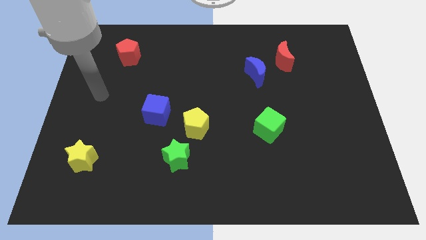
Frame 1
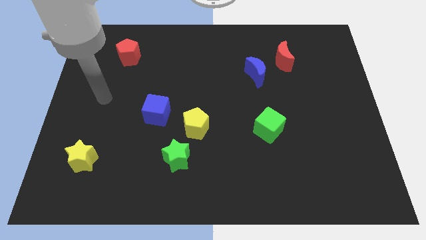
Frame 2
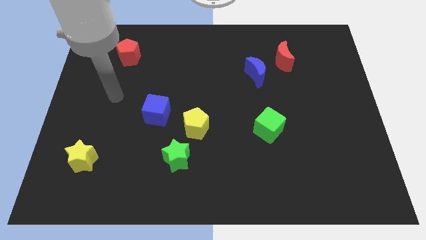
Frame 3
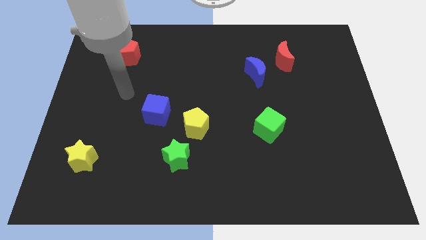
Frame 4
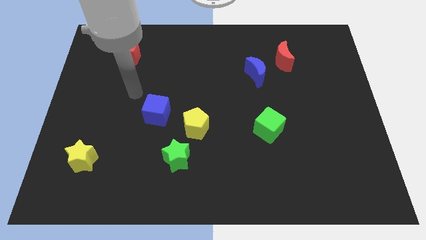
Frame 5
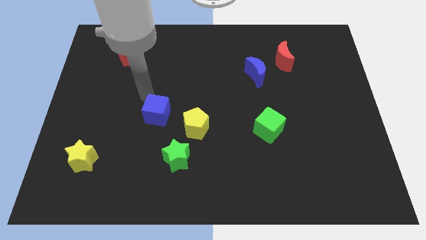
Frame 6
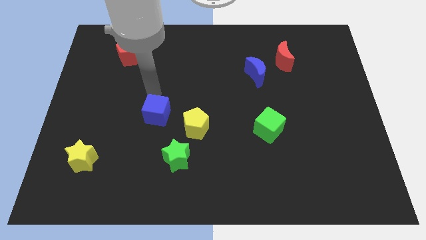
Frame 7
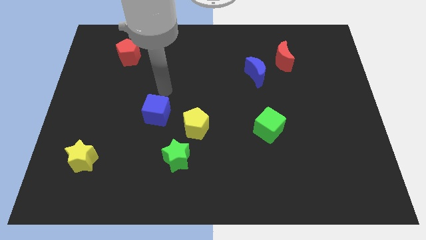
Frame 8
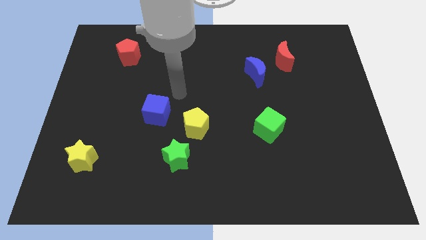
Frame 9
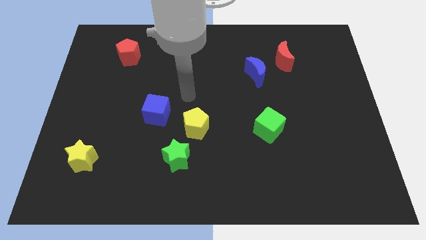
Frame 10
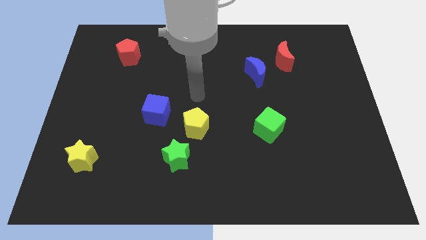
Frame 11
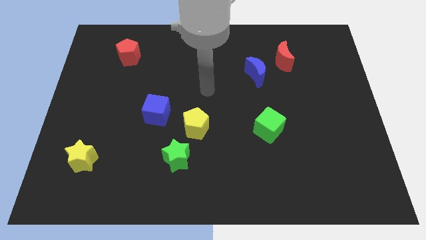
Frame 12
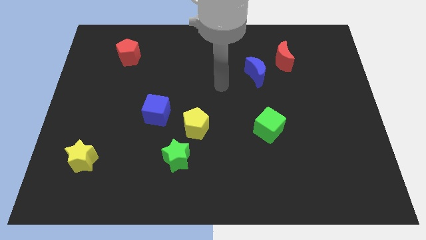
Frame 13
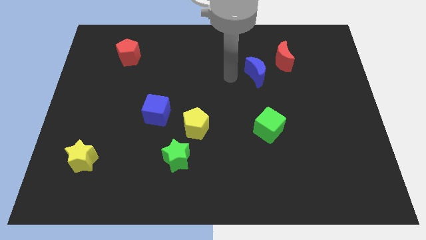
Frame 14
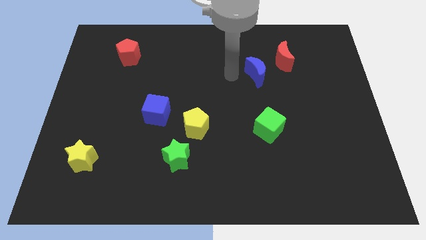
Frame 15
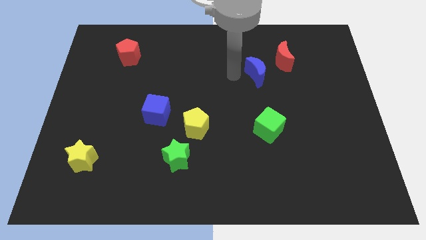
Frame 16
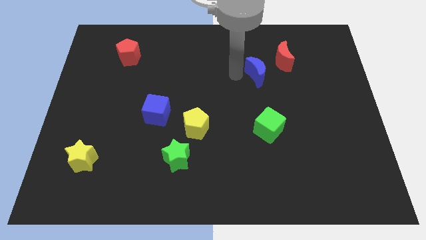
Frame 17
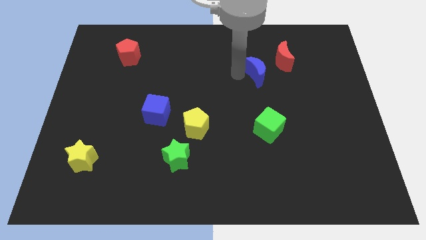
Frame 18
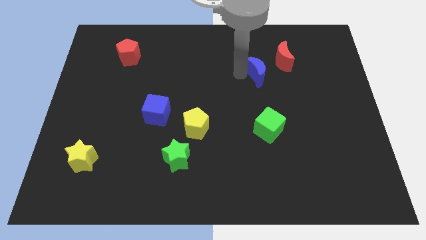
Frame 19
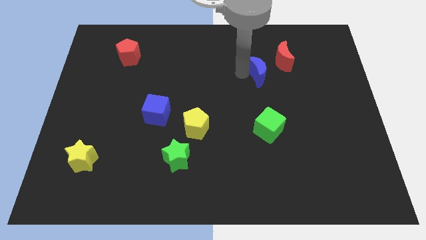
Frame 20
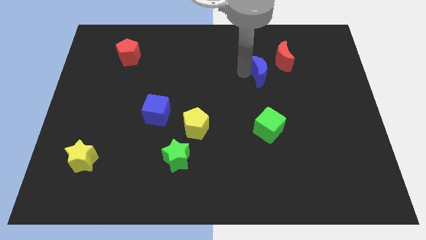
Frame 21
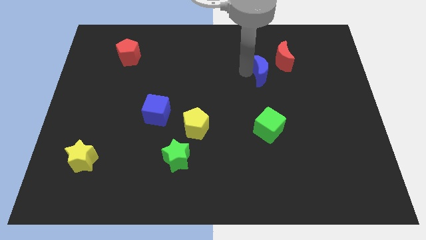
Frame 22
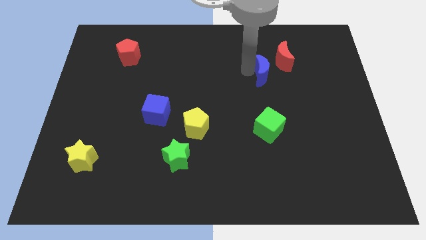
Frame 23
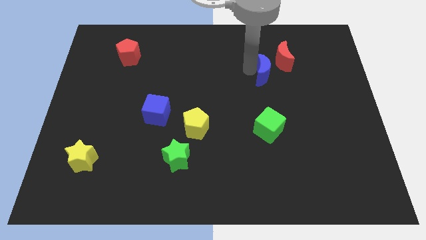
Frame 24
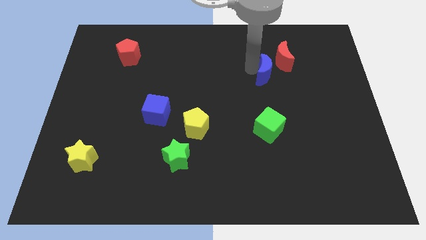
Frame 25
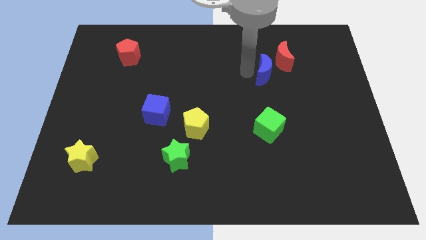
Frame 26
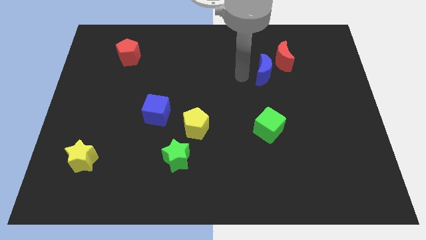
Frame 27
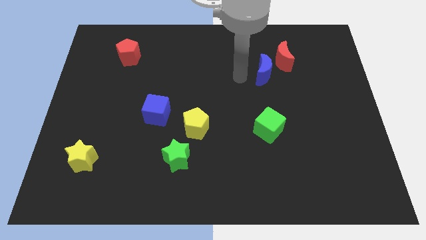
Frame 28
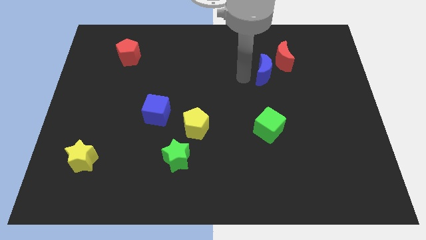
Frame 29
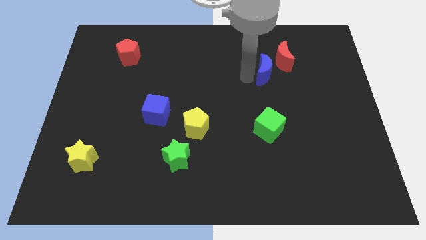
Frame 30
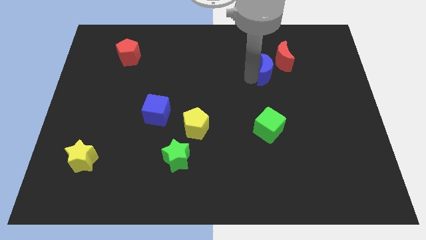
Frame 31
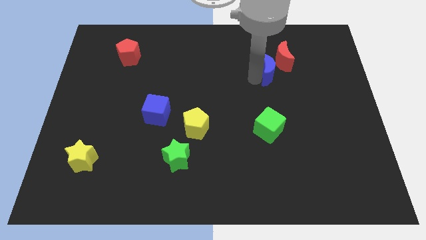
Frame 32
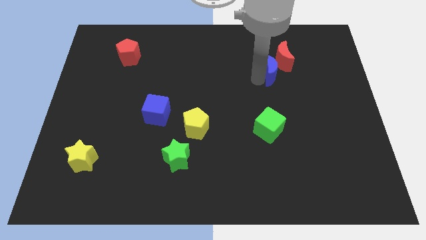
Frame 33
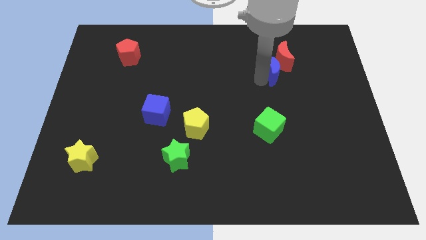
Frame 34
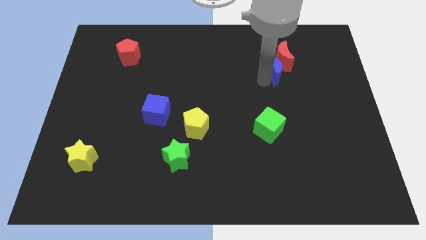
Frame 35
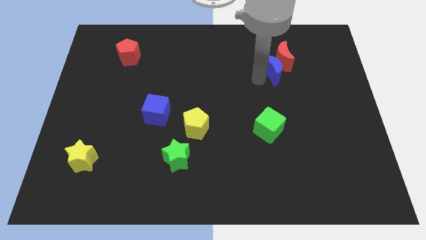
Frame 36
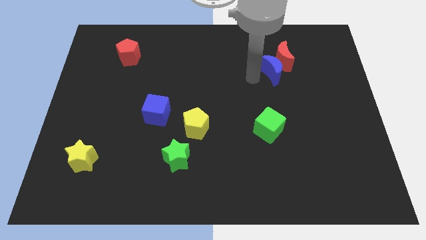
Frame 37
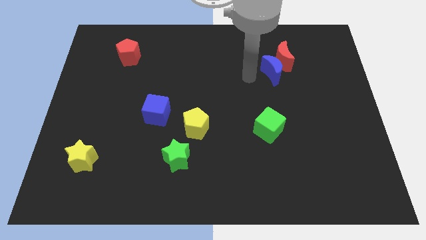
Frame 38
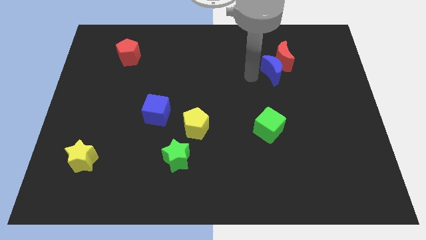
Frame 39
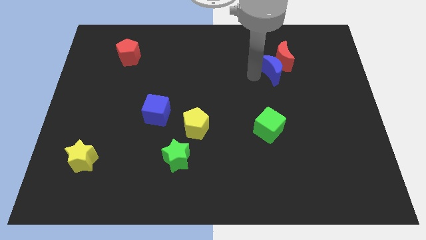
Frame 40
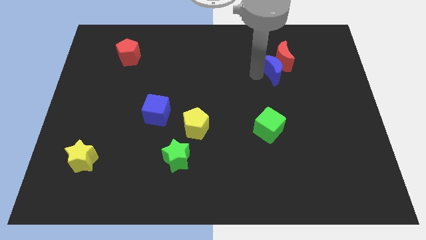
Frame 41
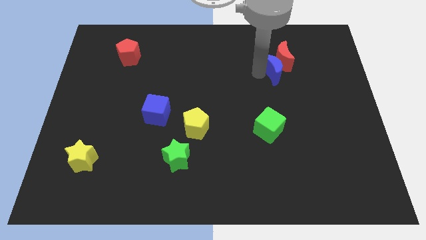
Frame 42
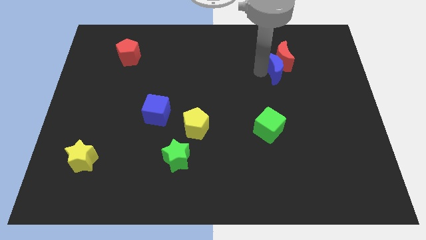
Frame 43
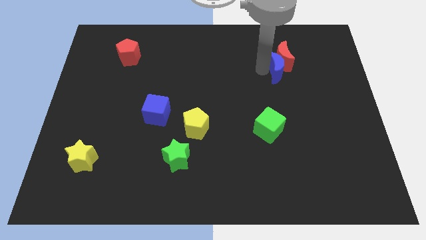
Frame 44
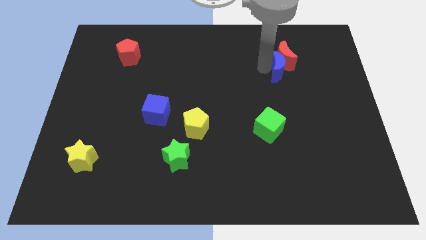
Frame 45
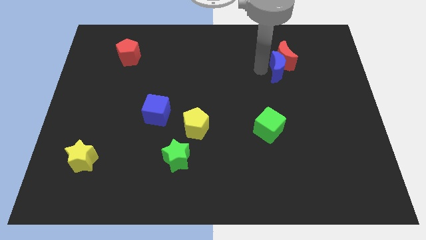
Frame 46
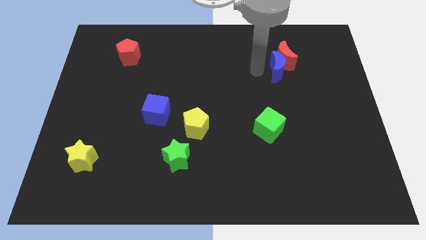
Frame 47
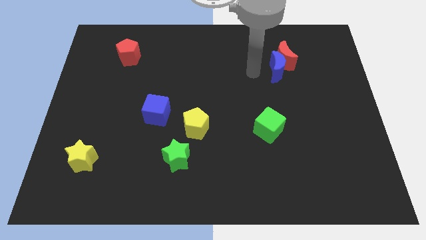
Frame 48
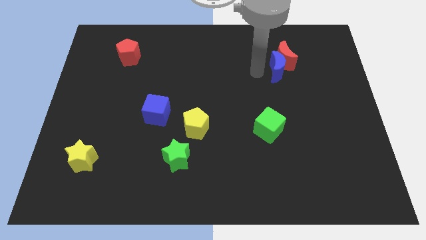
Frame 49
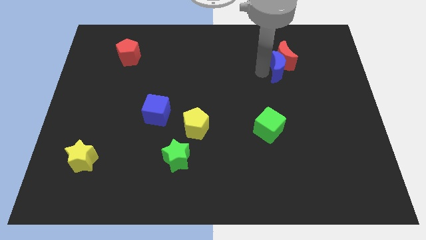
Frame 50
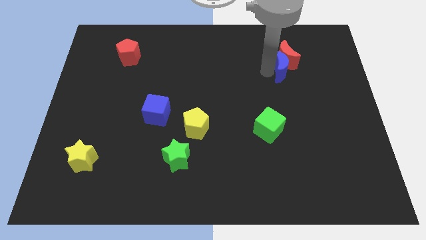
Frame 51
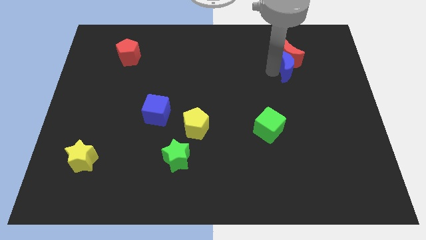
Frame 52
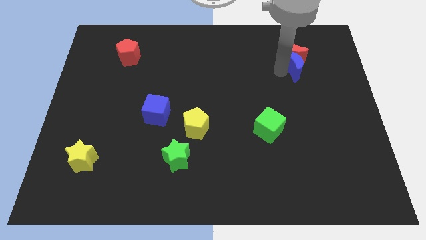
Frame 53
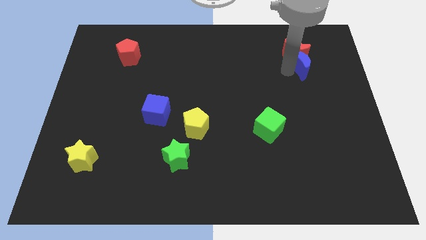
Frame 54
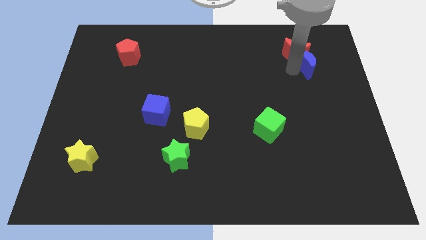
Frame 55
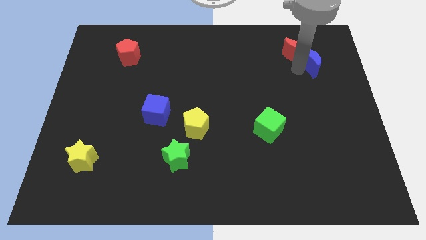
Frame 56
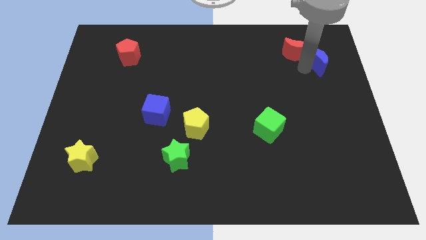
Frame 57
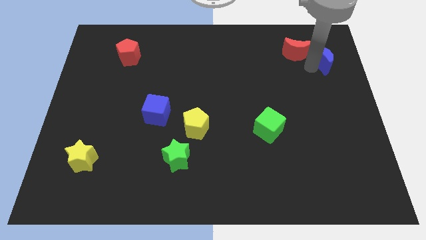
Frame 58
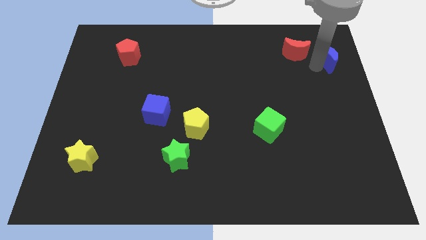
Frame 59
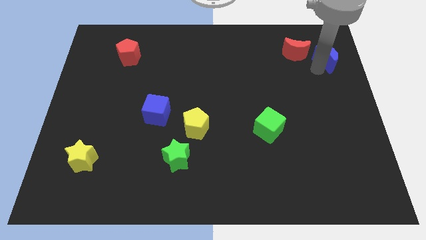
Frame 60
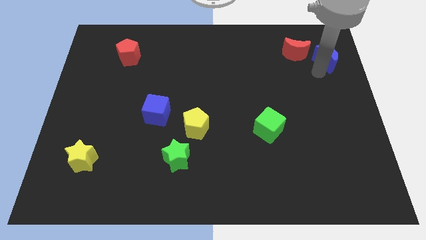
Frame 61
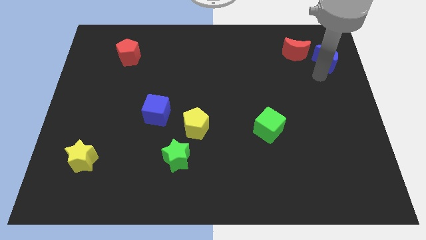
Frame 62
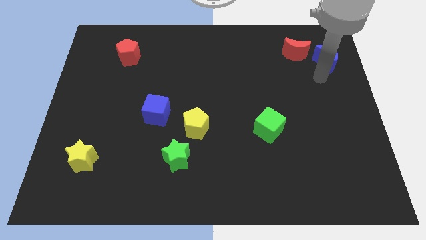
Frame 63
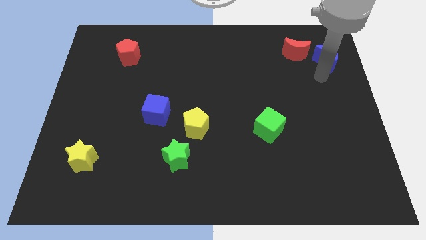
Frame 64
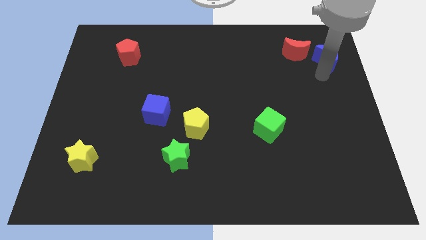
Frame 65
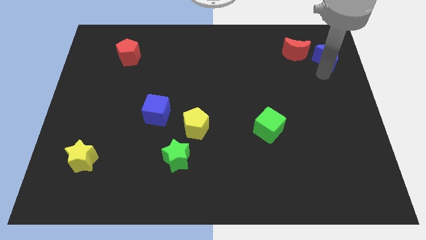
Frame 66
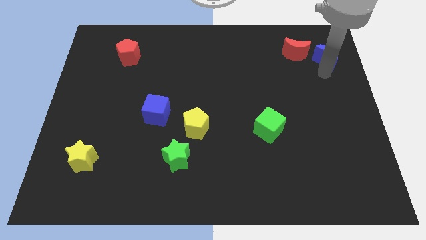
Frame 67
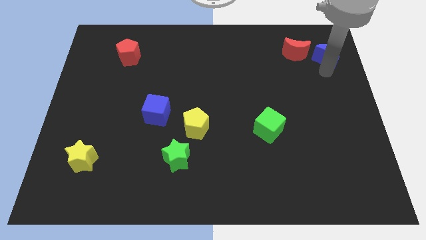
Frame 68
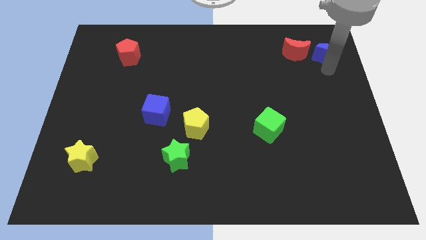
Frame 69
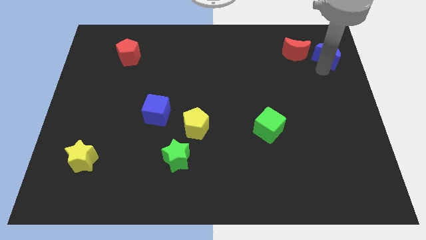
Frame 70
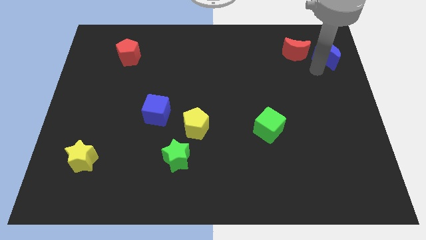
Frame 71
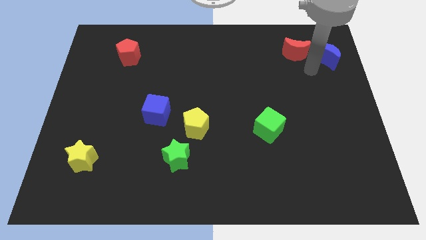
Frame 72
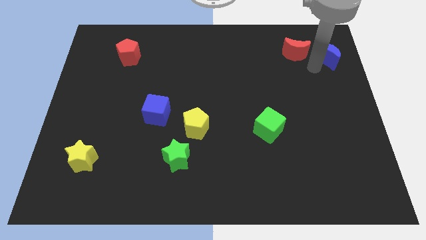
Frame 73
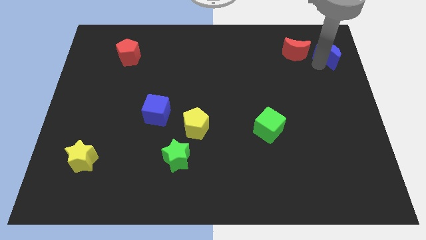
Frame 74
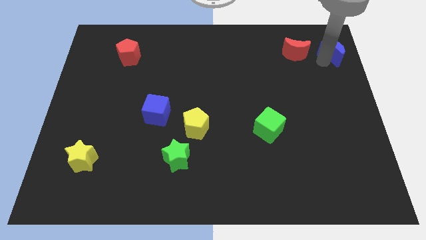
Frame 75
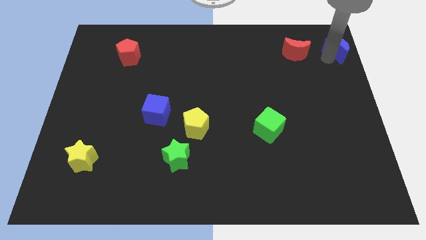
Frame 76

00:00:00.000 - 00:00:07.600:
slide the blue moon to the top right
